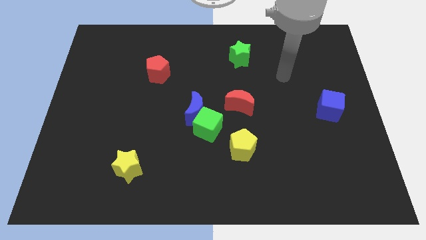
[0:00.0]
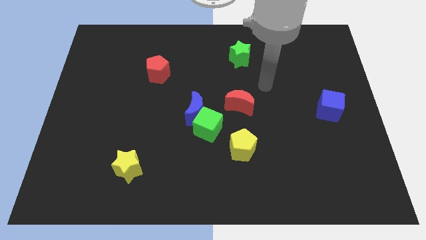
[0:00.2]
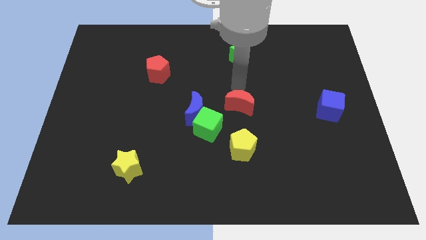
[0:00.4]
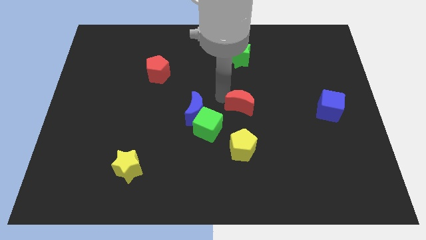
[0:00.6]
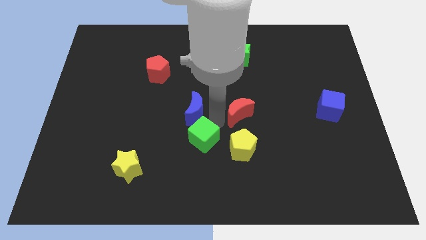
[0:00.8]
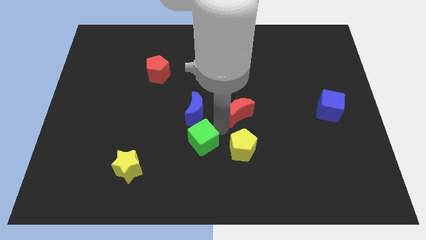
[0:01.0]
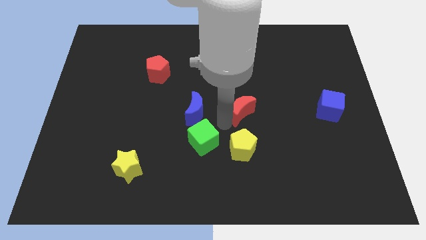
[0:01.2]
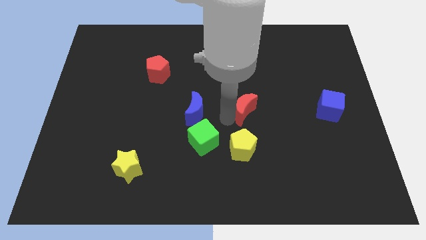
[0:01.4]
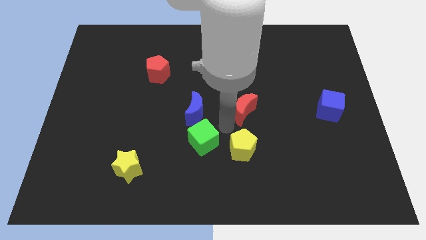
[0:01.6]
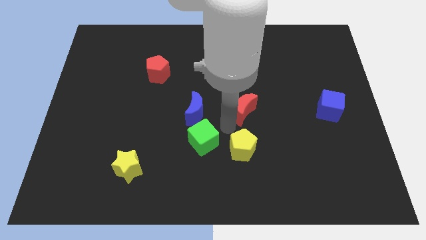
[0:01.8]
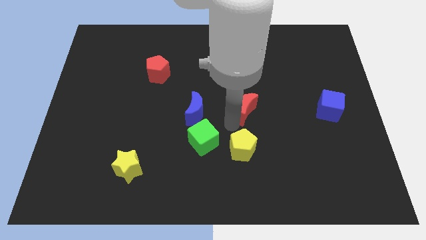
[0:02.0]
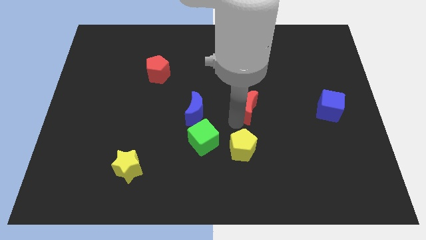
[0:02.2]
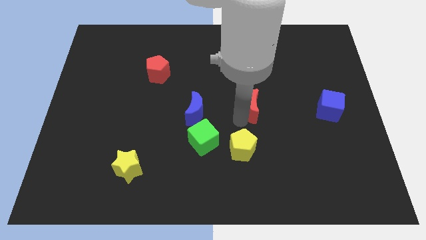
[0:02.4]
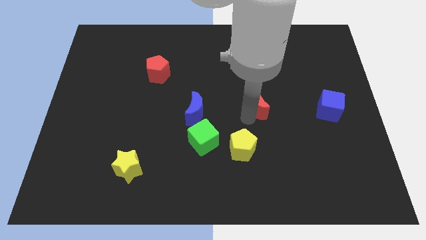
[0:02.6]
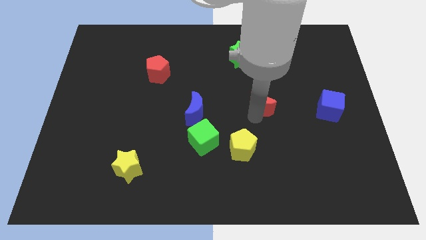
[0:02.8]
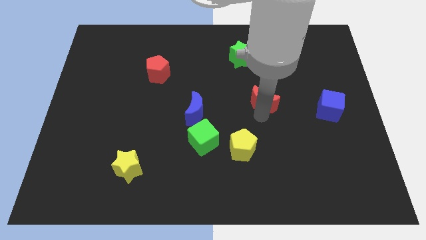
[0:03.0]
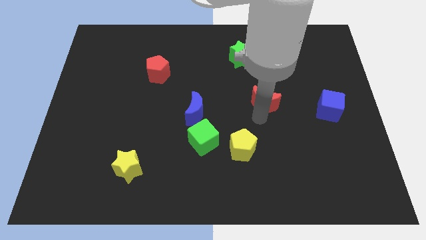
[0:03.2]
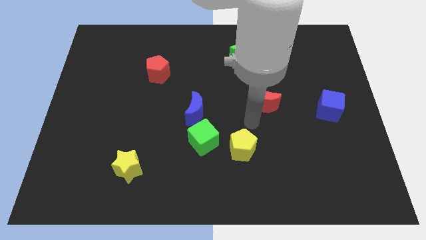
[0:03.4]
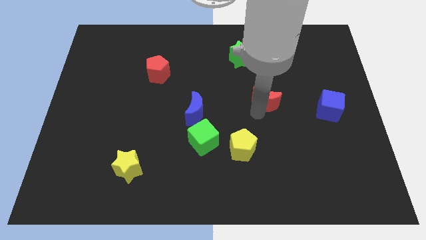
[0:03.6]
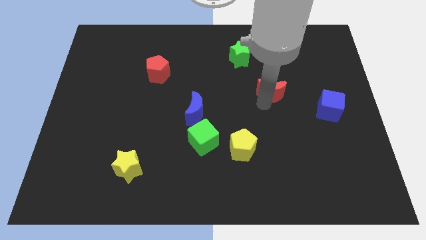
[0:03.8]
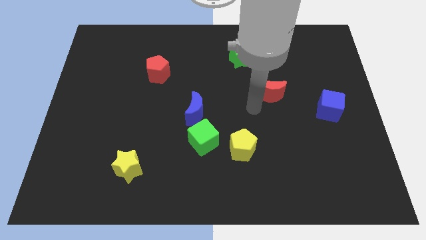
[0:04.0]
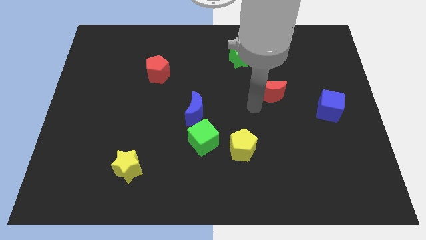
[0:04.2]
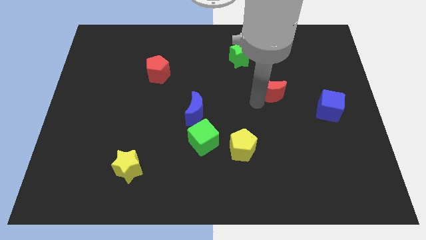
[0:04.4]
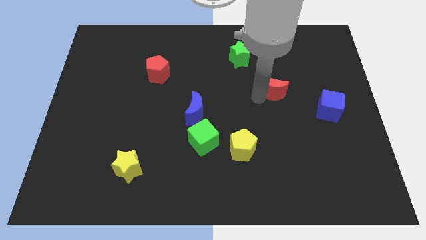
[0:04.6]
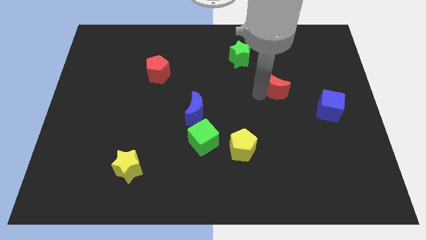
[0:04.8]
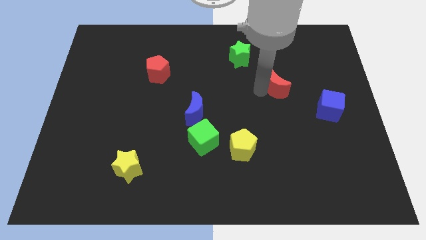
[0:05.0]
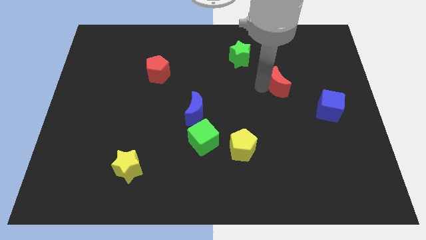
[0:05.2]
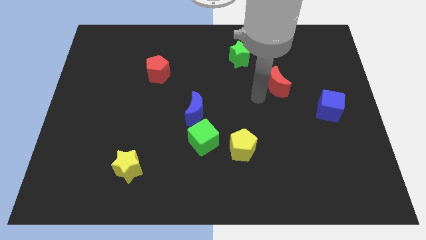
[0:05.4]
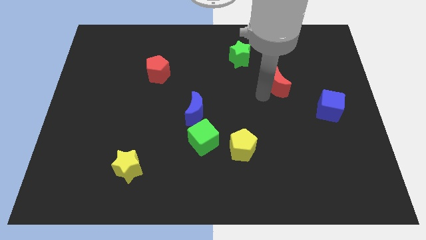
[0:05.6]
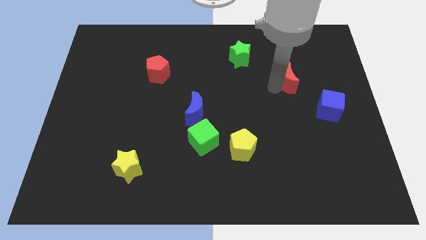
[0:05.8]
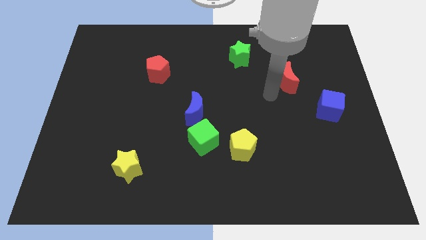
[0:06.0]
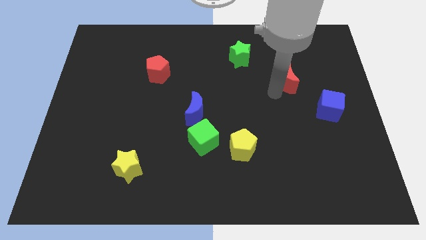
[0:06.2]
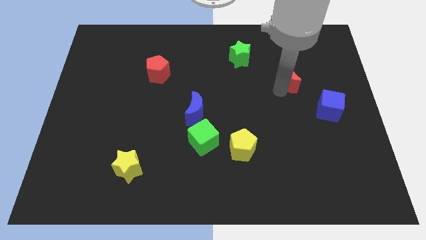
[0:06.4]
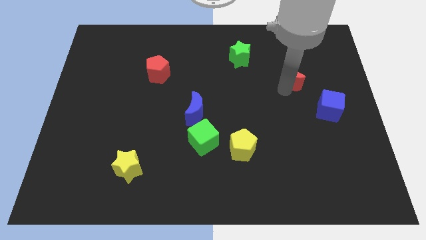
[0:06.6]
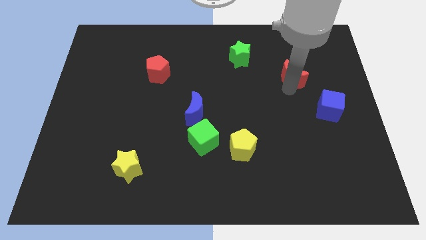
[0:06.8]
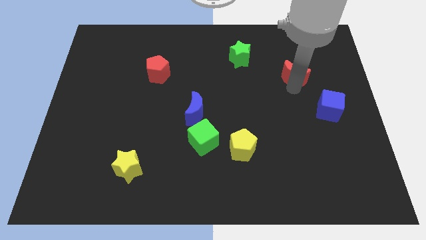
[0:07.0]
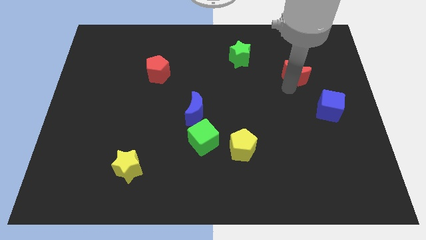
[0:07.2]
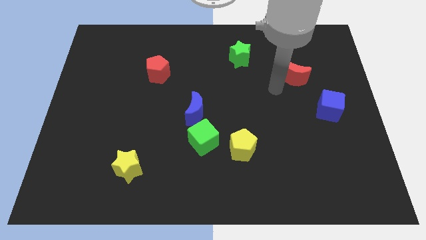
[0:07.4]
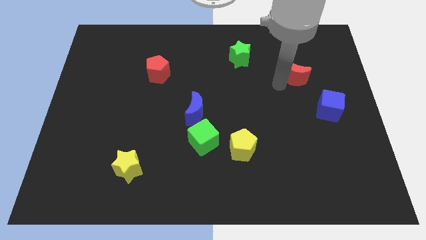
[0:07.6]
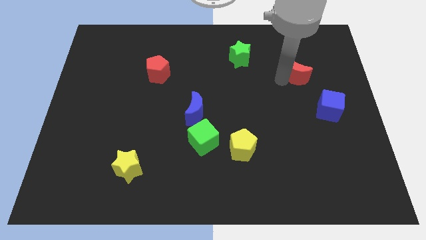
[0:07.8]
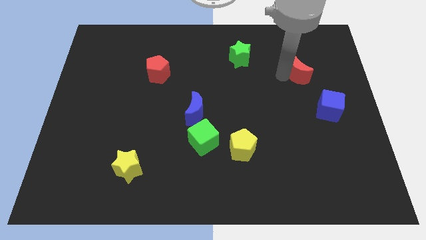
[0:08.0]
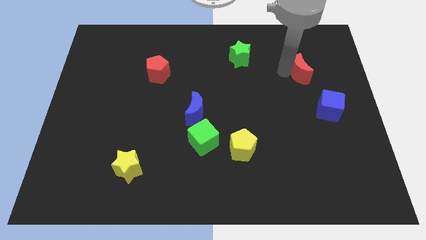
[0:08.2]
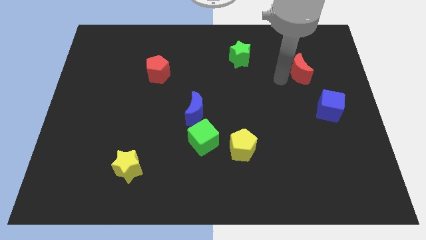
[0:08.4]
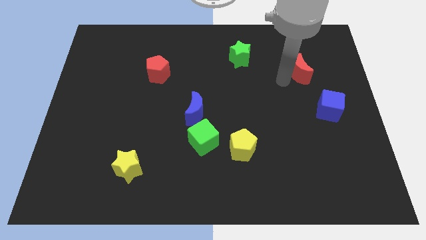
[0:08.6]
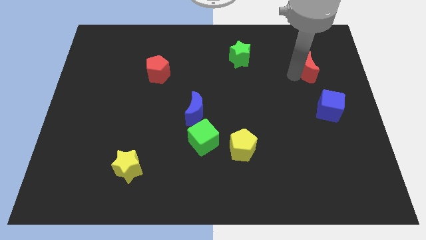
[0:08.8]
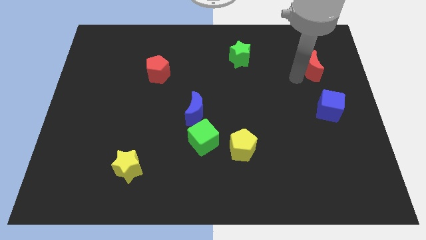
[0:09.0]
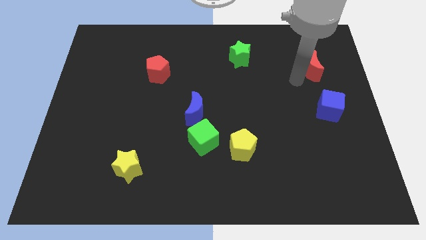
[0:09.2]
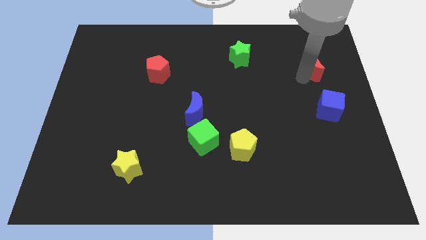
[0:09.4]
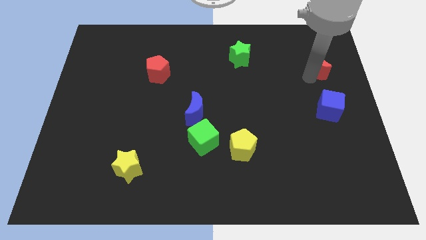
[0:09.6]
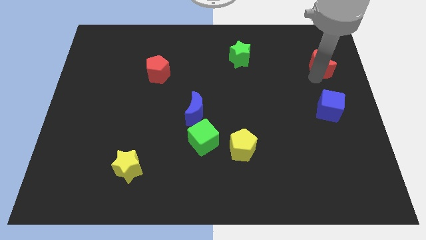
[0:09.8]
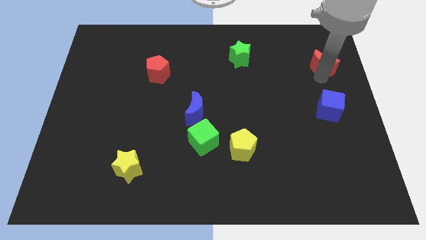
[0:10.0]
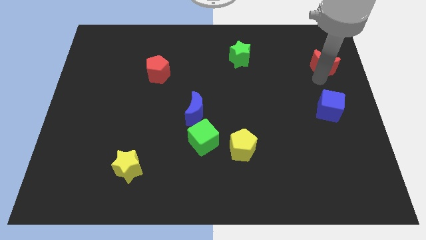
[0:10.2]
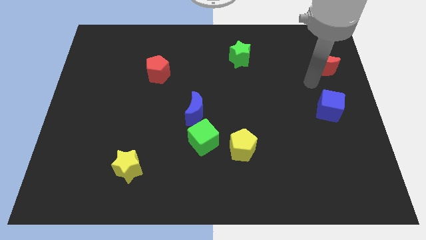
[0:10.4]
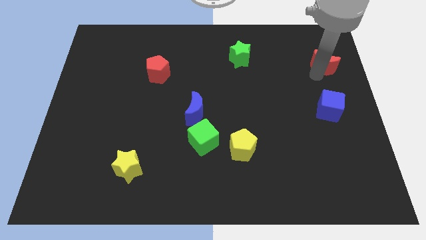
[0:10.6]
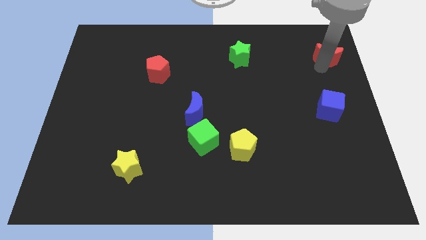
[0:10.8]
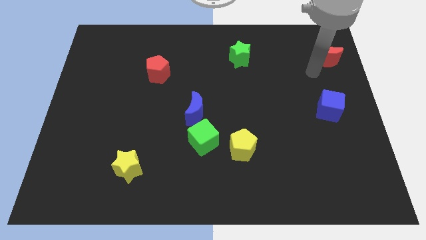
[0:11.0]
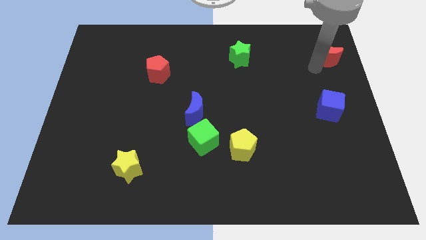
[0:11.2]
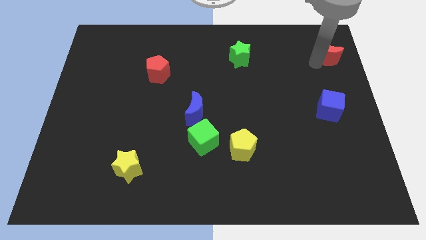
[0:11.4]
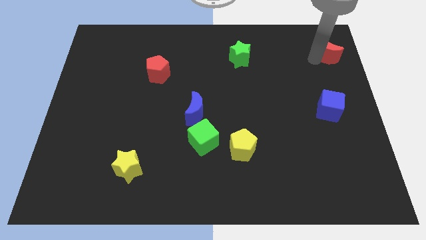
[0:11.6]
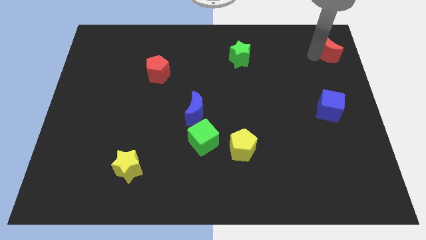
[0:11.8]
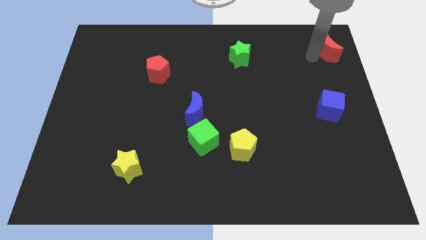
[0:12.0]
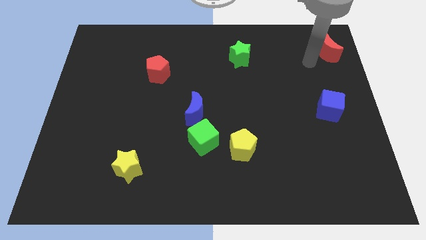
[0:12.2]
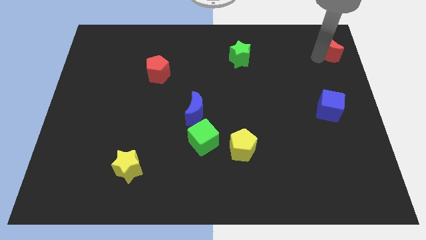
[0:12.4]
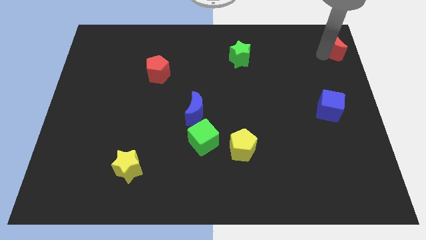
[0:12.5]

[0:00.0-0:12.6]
slide the red moon to the top right of the board
